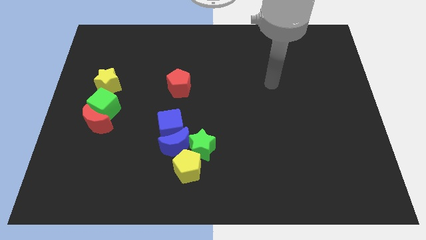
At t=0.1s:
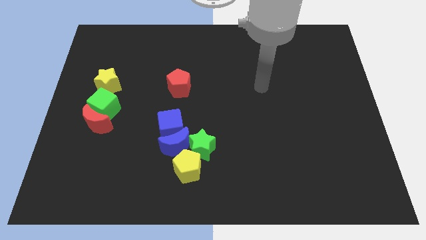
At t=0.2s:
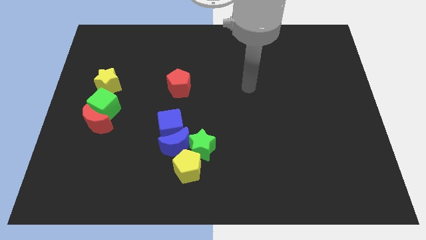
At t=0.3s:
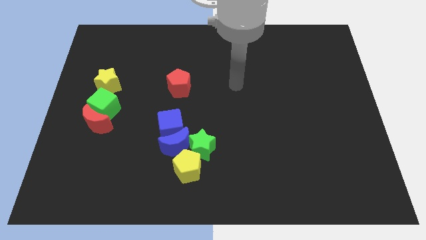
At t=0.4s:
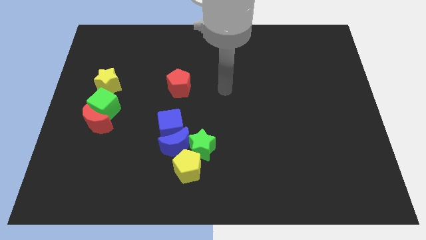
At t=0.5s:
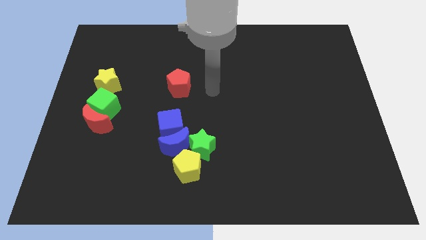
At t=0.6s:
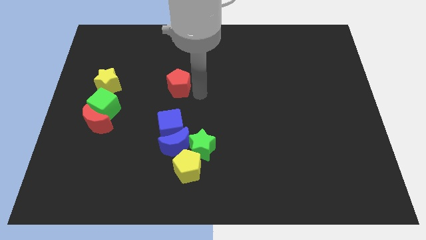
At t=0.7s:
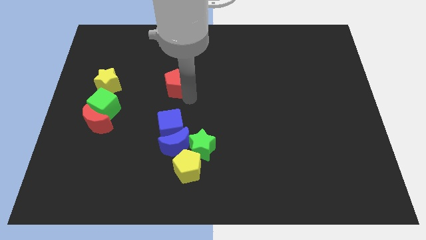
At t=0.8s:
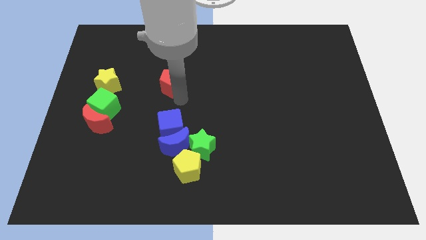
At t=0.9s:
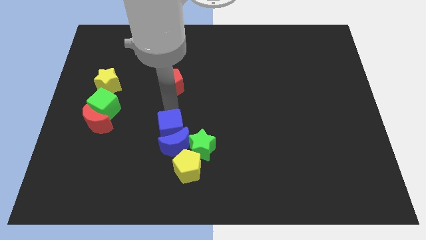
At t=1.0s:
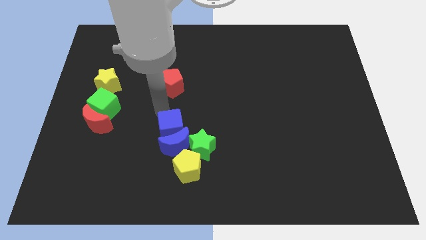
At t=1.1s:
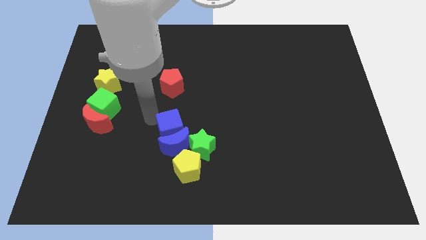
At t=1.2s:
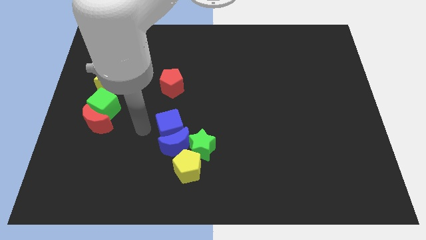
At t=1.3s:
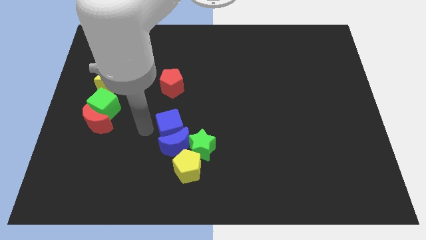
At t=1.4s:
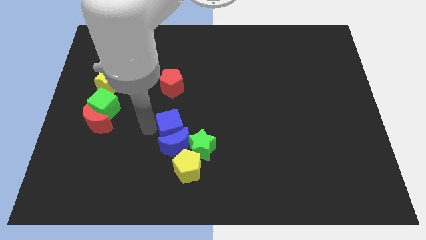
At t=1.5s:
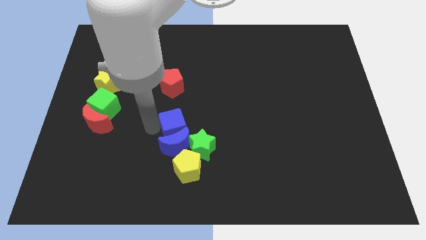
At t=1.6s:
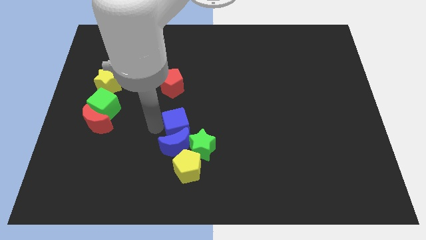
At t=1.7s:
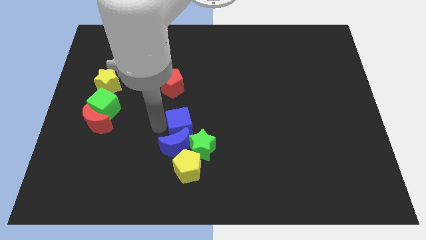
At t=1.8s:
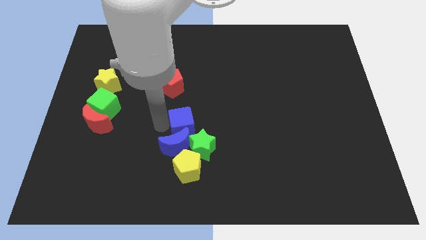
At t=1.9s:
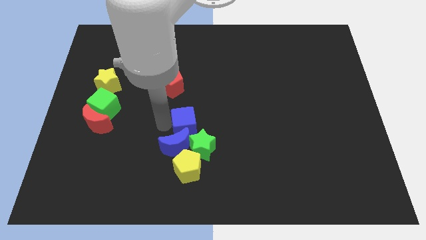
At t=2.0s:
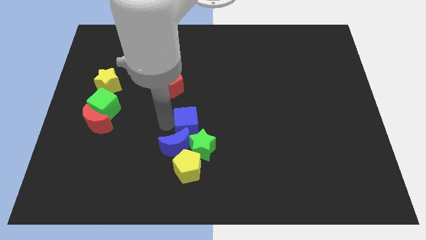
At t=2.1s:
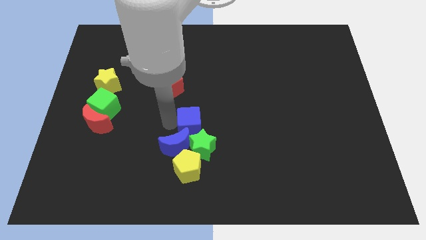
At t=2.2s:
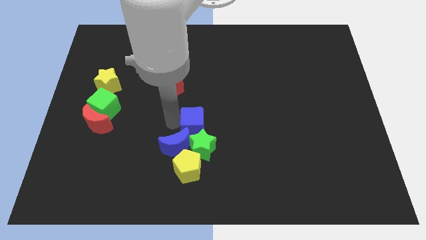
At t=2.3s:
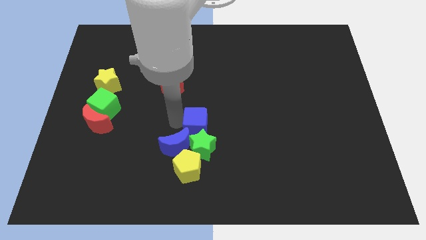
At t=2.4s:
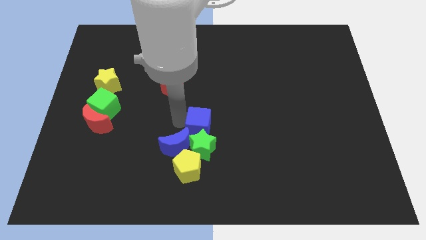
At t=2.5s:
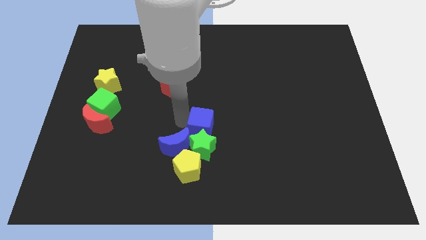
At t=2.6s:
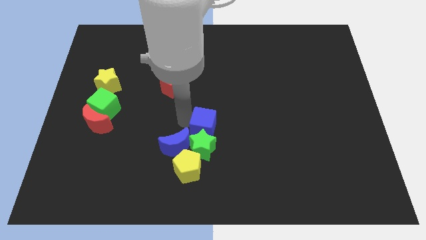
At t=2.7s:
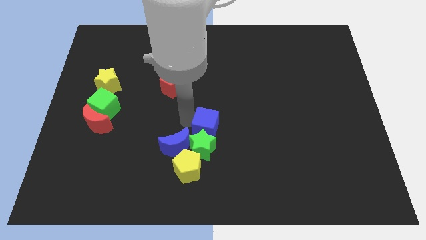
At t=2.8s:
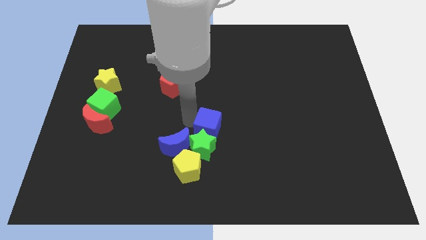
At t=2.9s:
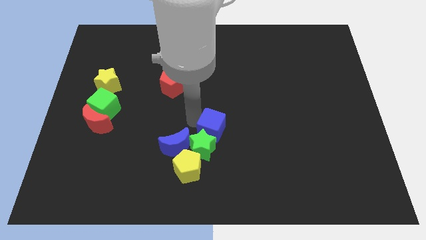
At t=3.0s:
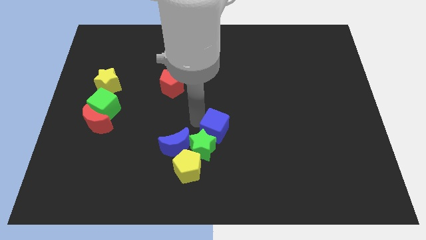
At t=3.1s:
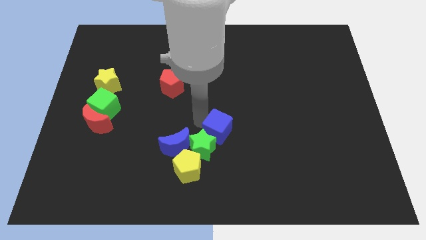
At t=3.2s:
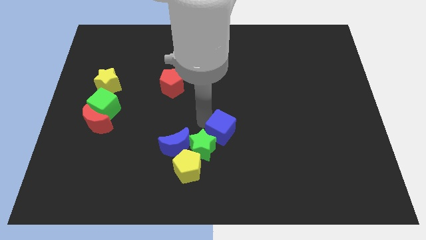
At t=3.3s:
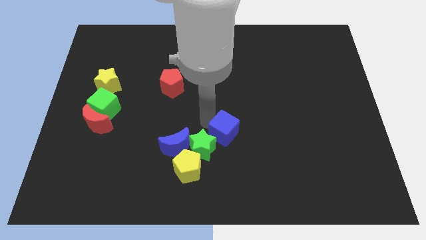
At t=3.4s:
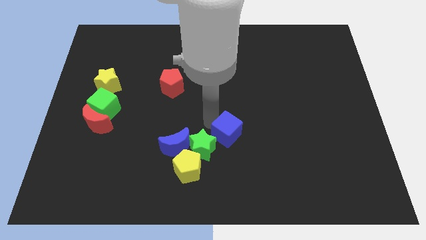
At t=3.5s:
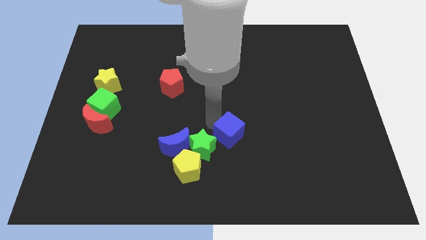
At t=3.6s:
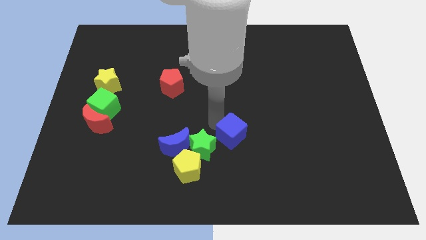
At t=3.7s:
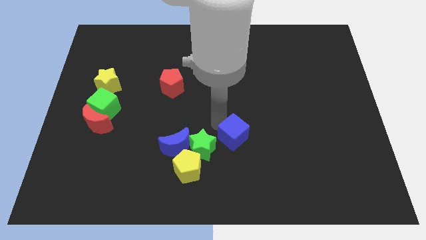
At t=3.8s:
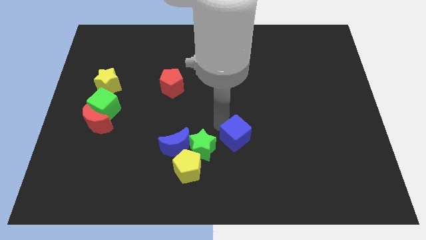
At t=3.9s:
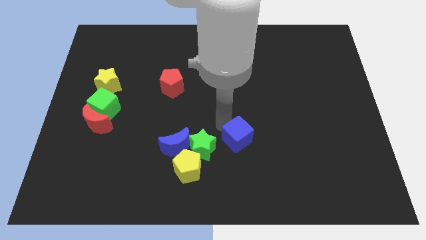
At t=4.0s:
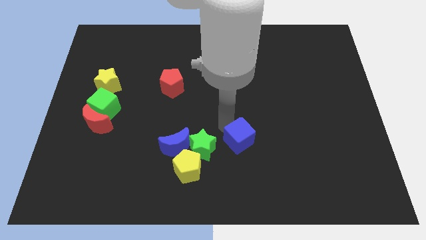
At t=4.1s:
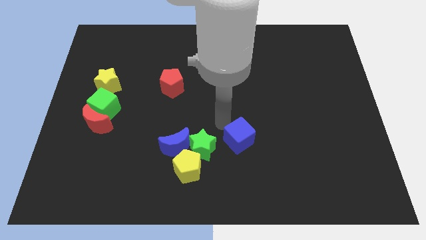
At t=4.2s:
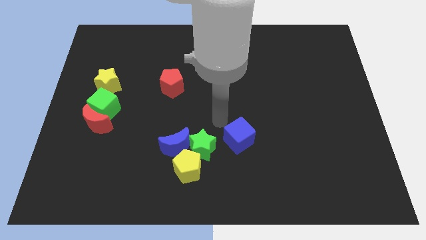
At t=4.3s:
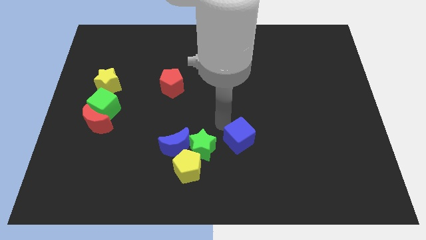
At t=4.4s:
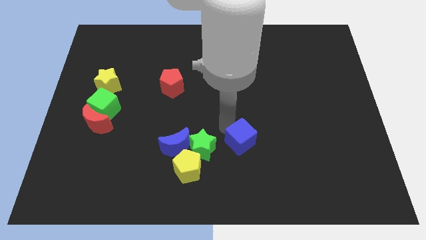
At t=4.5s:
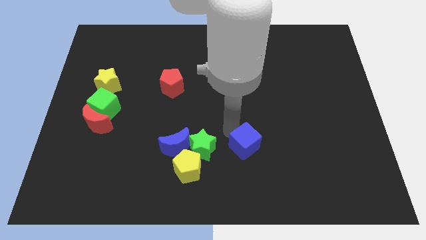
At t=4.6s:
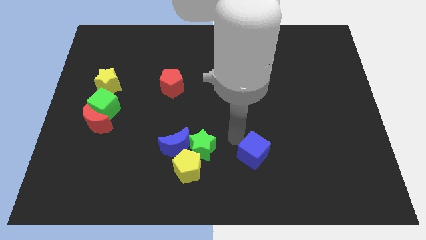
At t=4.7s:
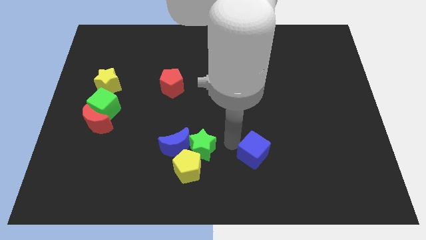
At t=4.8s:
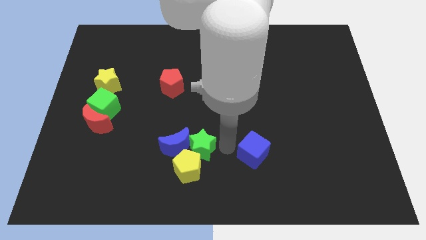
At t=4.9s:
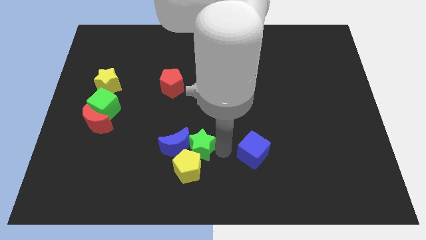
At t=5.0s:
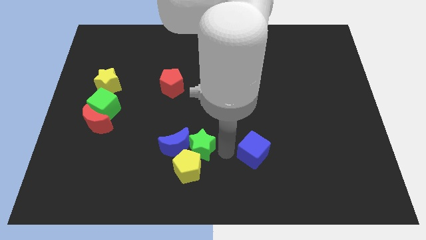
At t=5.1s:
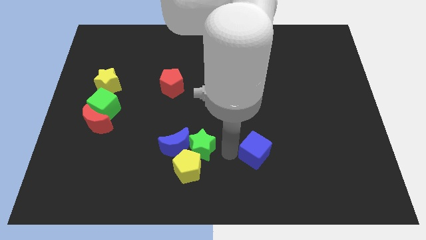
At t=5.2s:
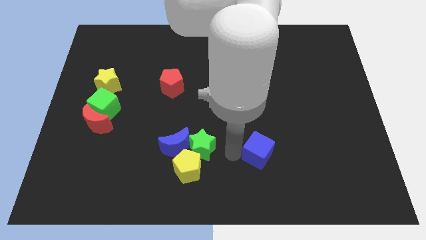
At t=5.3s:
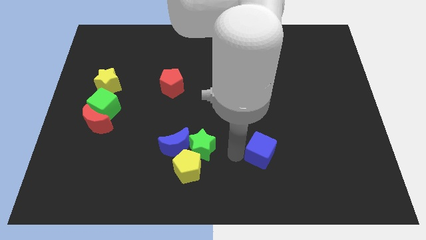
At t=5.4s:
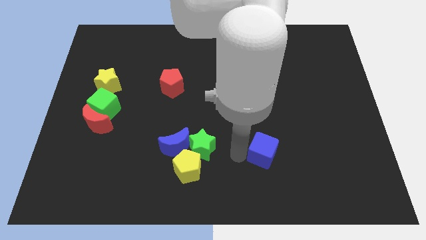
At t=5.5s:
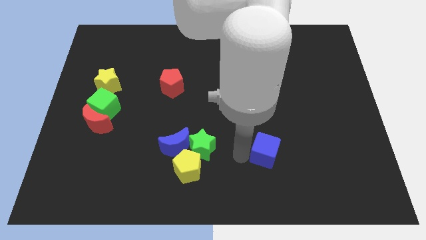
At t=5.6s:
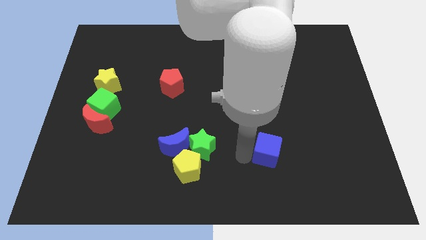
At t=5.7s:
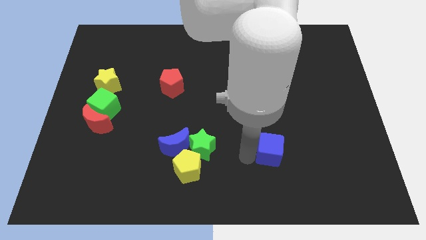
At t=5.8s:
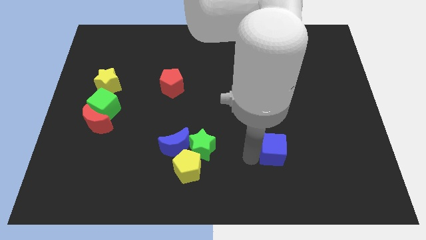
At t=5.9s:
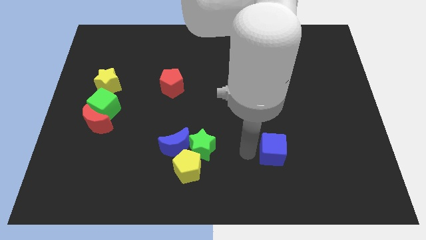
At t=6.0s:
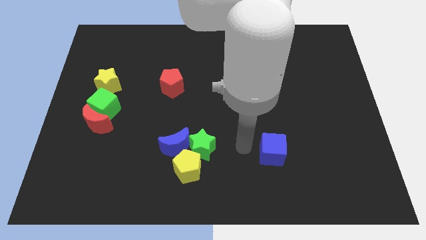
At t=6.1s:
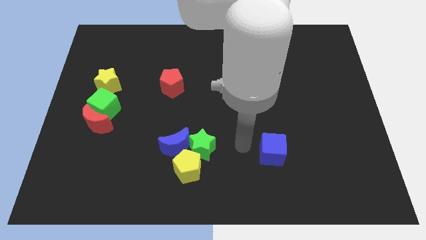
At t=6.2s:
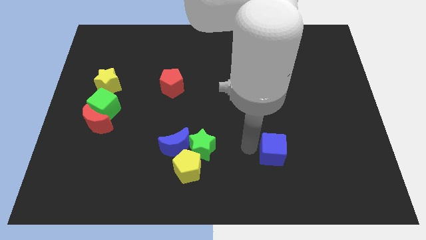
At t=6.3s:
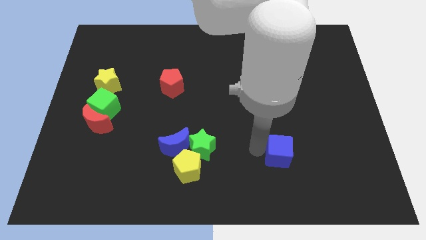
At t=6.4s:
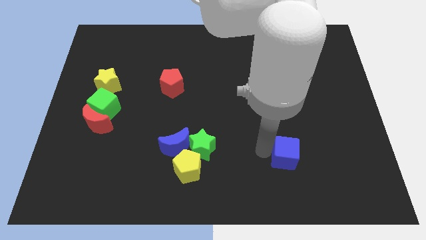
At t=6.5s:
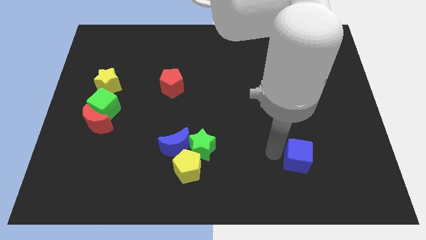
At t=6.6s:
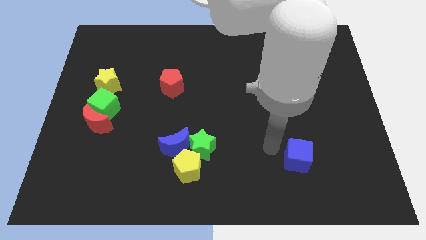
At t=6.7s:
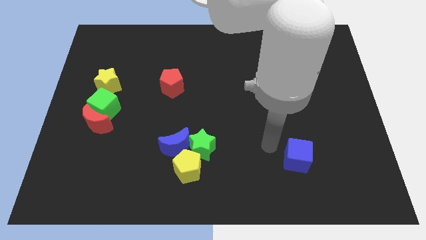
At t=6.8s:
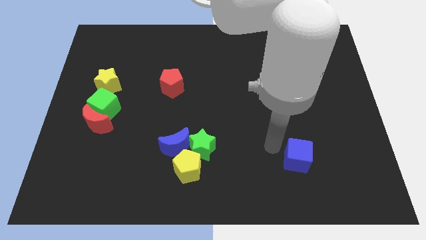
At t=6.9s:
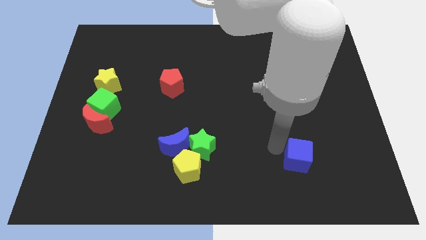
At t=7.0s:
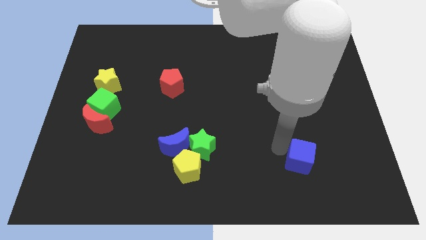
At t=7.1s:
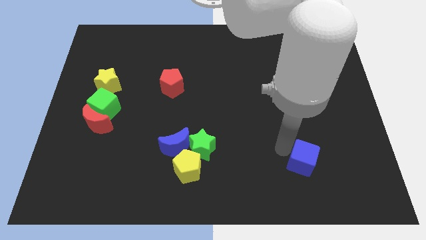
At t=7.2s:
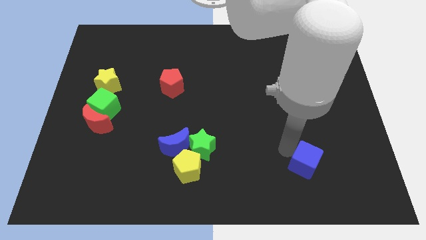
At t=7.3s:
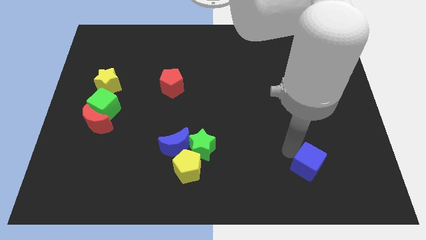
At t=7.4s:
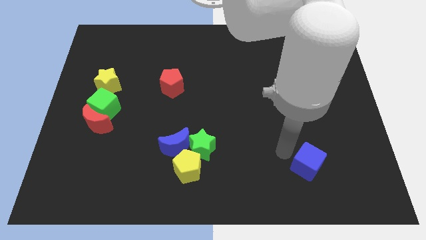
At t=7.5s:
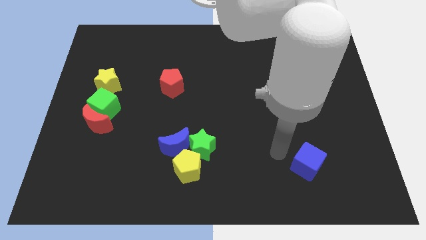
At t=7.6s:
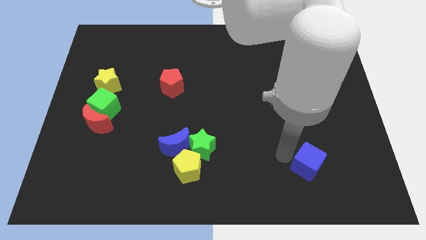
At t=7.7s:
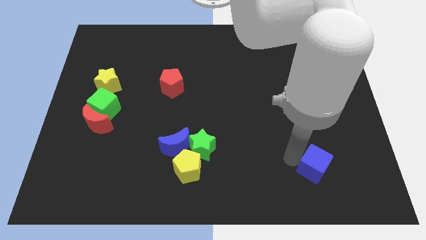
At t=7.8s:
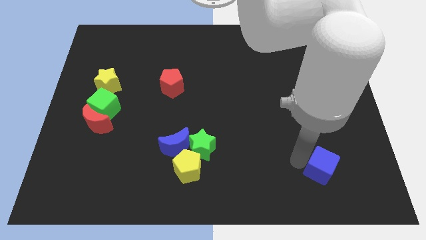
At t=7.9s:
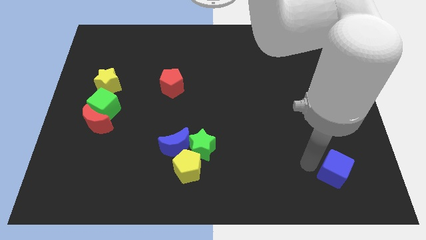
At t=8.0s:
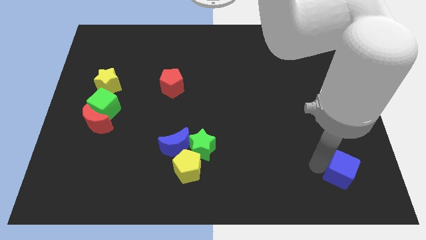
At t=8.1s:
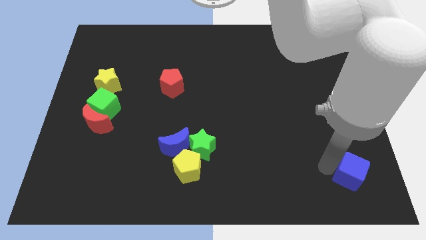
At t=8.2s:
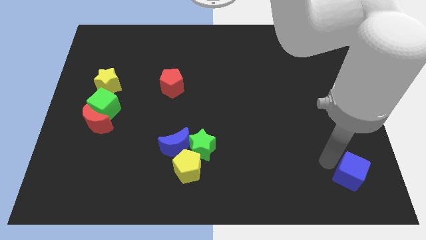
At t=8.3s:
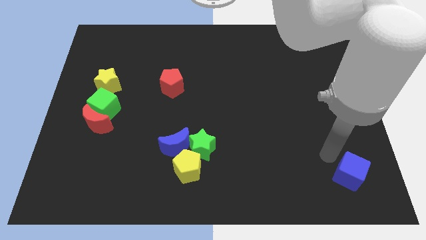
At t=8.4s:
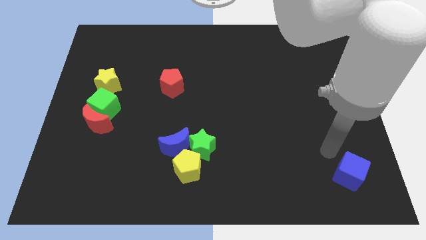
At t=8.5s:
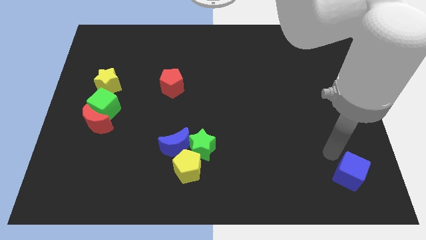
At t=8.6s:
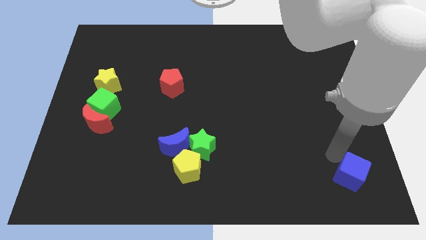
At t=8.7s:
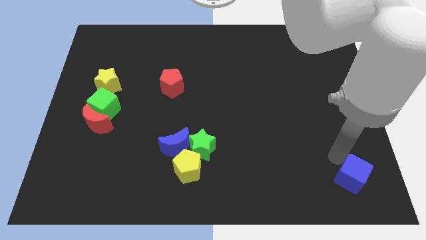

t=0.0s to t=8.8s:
slide the blue cube to the bottom right
